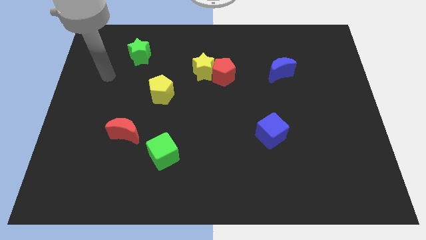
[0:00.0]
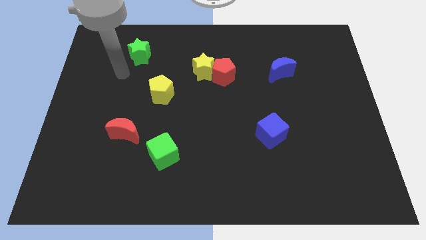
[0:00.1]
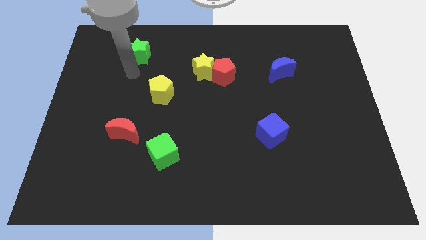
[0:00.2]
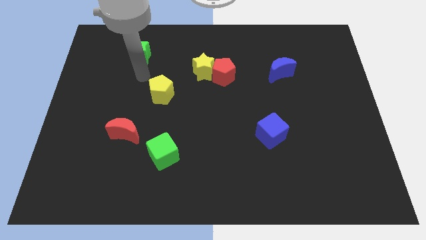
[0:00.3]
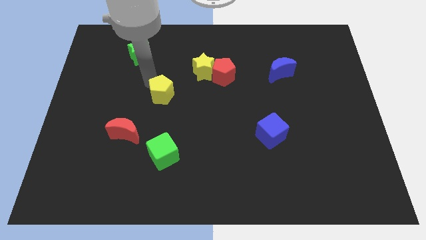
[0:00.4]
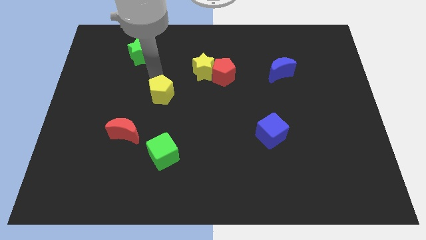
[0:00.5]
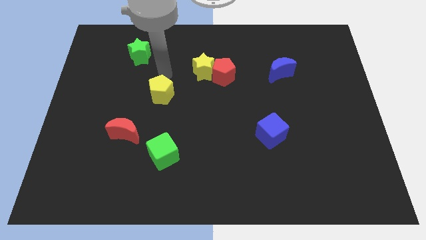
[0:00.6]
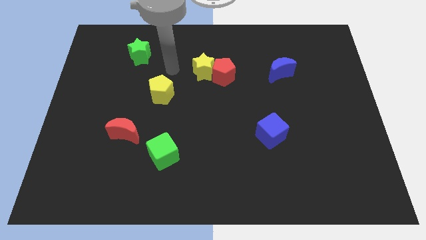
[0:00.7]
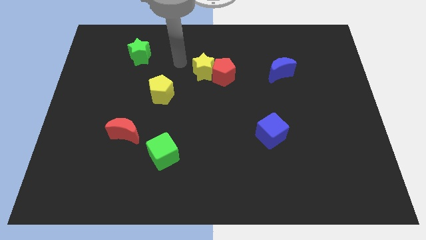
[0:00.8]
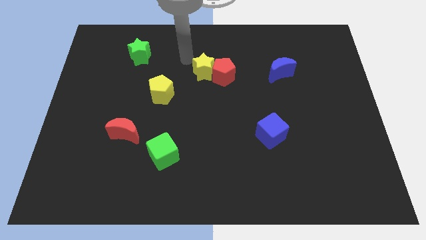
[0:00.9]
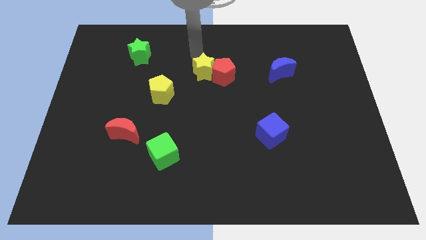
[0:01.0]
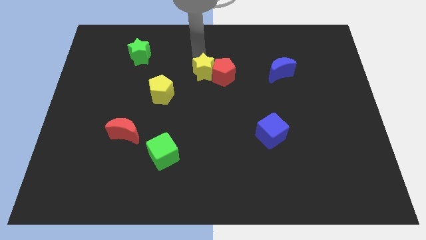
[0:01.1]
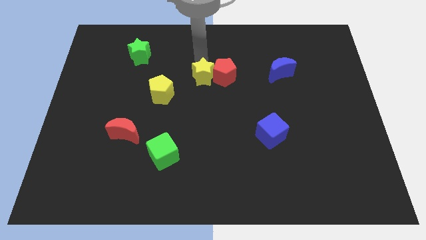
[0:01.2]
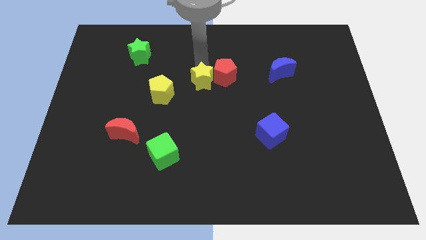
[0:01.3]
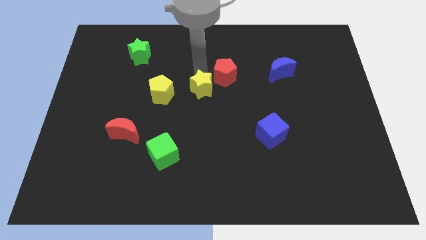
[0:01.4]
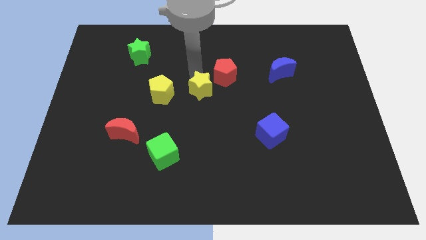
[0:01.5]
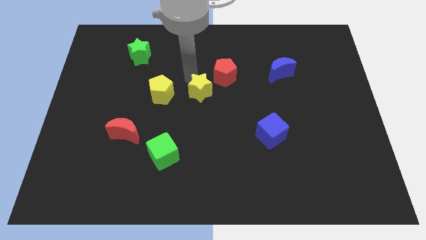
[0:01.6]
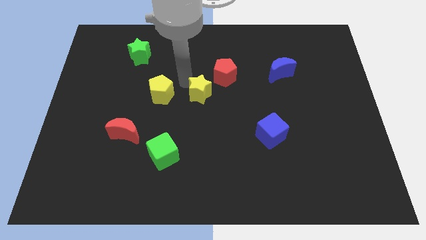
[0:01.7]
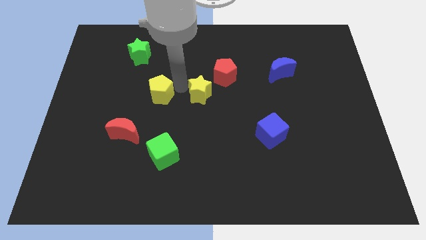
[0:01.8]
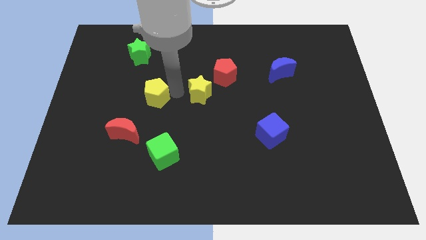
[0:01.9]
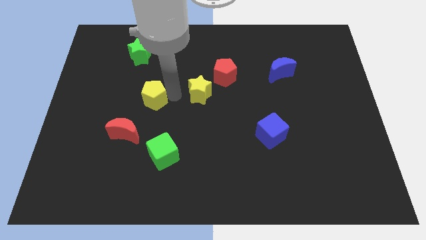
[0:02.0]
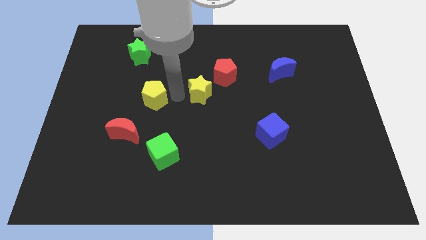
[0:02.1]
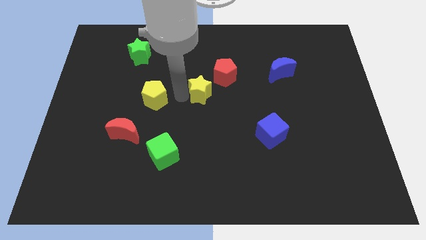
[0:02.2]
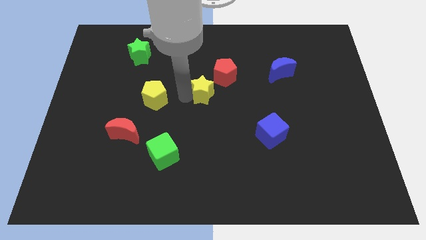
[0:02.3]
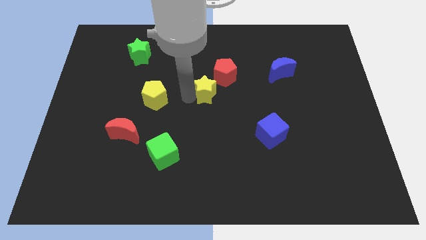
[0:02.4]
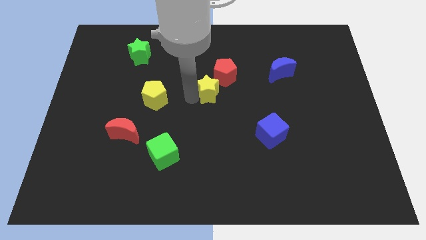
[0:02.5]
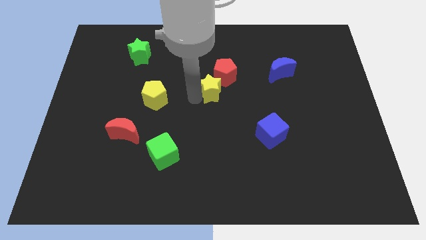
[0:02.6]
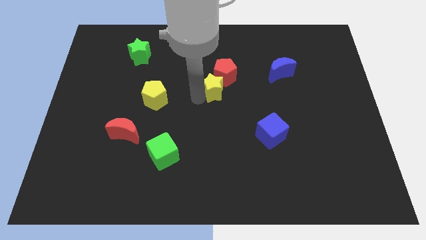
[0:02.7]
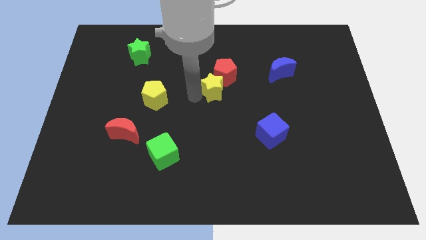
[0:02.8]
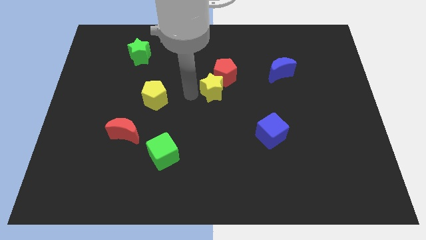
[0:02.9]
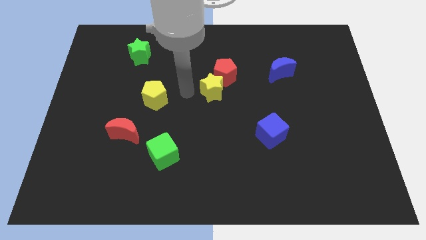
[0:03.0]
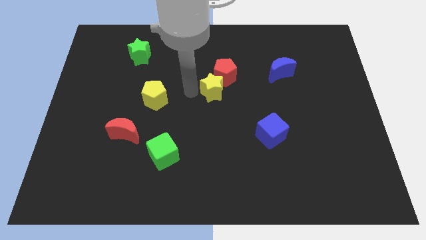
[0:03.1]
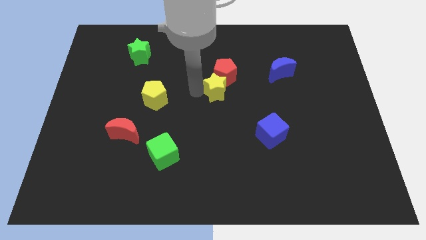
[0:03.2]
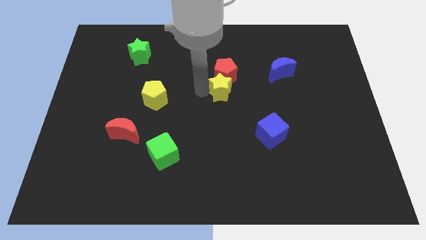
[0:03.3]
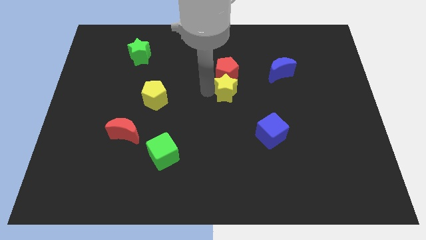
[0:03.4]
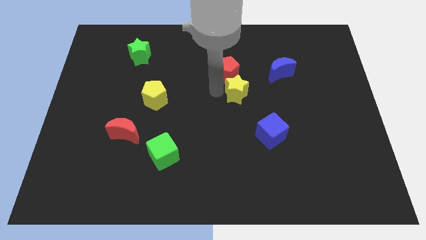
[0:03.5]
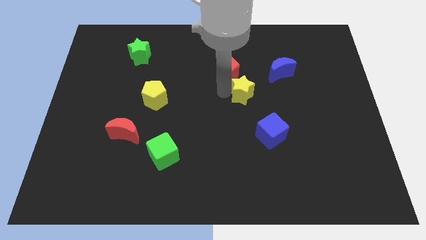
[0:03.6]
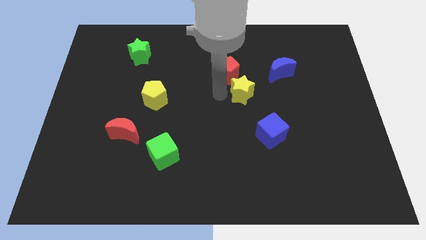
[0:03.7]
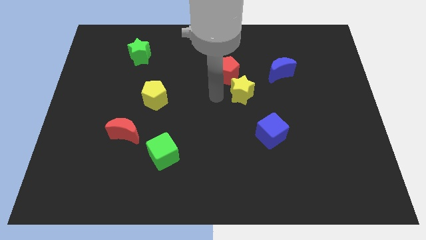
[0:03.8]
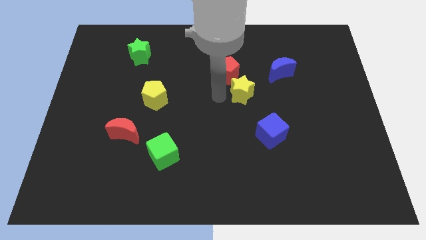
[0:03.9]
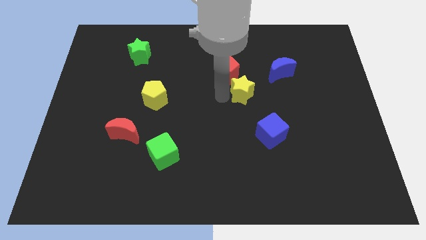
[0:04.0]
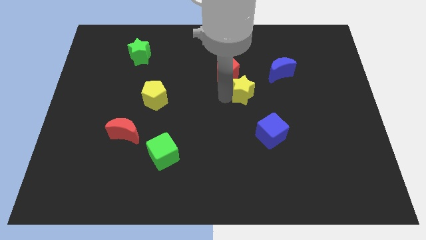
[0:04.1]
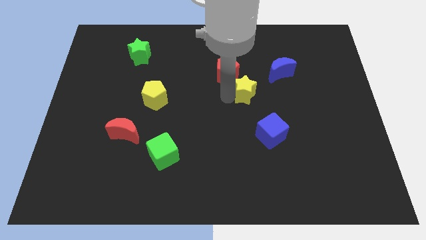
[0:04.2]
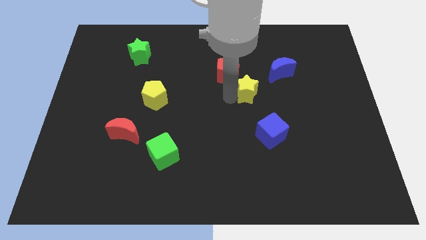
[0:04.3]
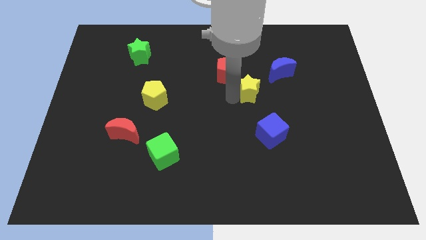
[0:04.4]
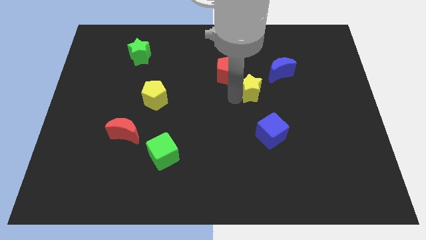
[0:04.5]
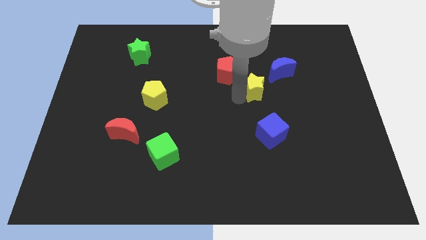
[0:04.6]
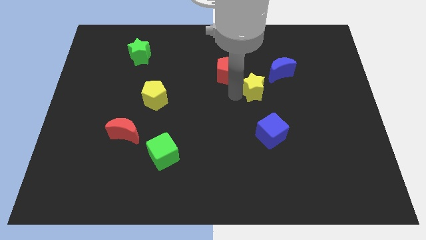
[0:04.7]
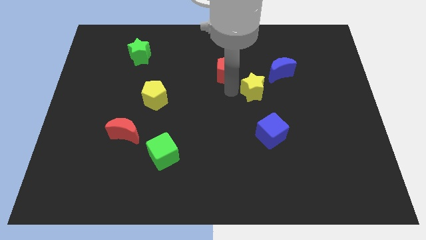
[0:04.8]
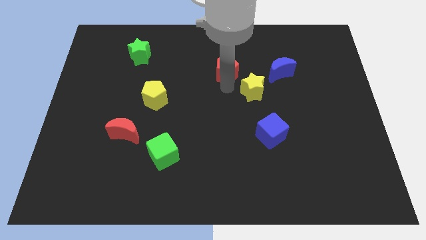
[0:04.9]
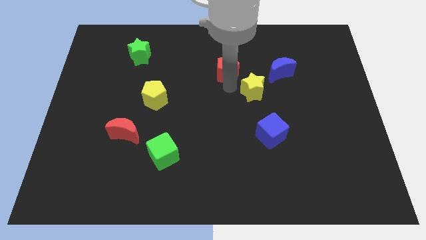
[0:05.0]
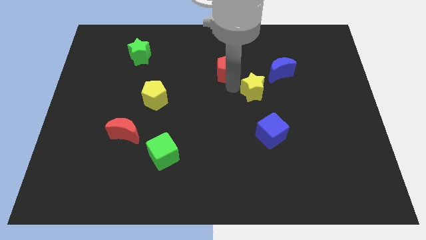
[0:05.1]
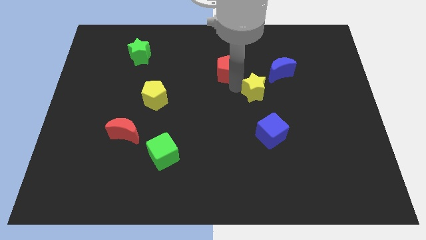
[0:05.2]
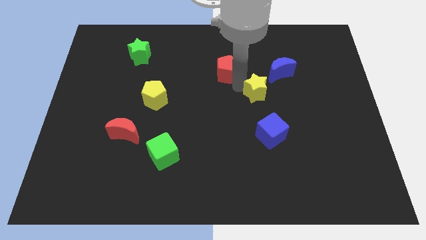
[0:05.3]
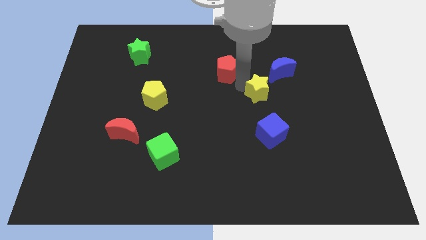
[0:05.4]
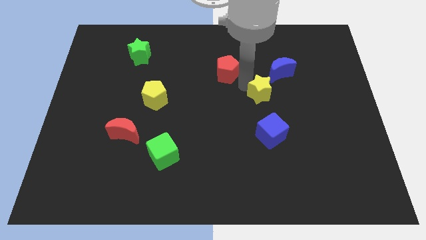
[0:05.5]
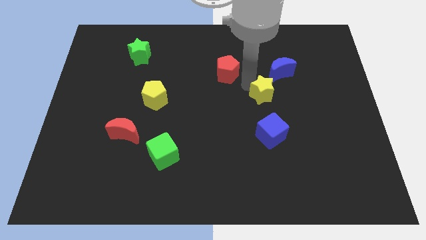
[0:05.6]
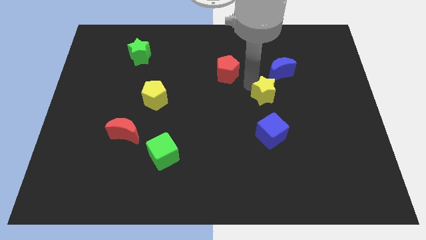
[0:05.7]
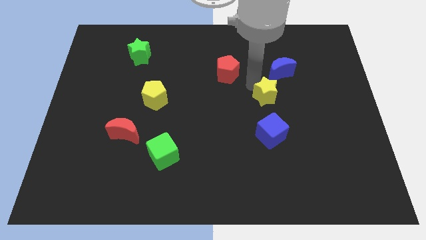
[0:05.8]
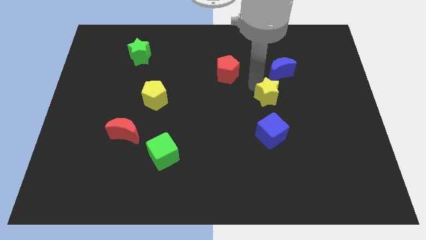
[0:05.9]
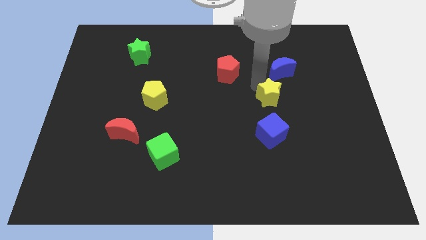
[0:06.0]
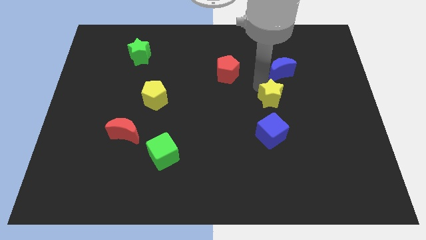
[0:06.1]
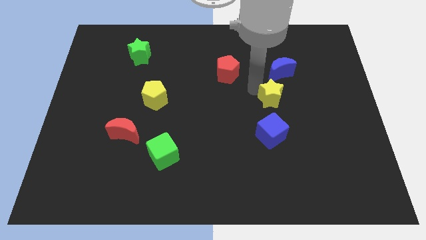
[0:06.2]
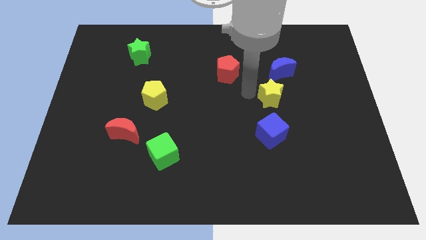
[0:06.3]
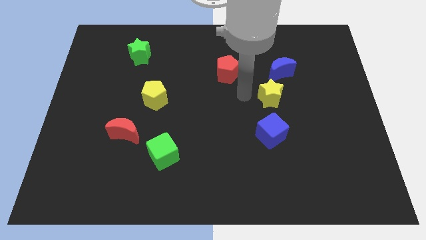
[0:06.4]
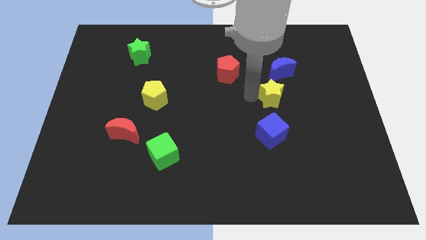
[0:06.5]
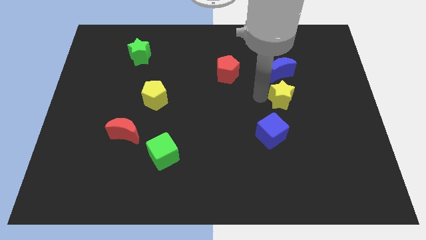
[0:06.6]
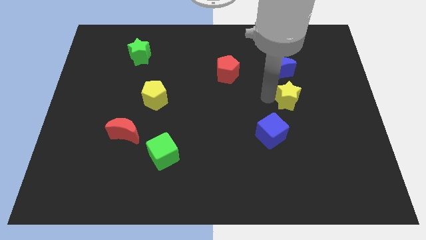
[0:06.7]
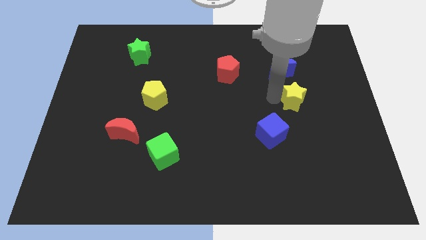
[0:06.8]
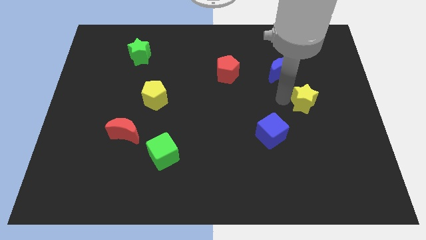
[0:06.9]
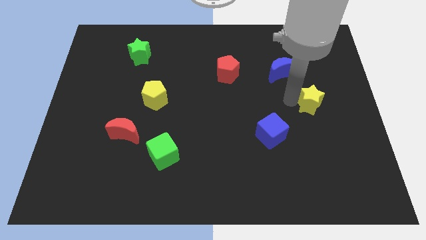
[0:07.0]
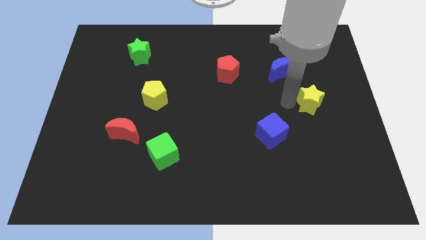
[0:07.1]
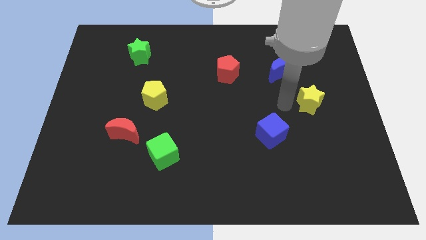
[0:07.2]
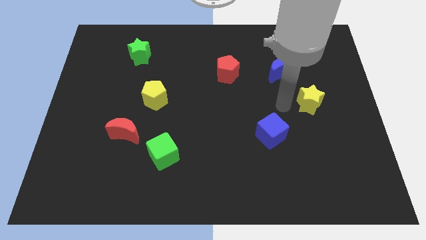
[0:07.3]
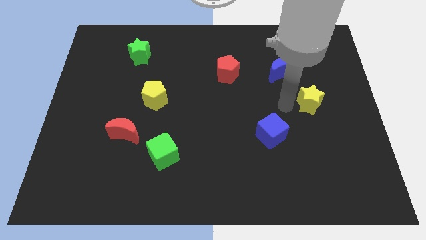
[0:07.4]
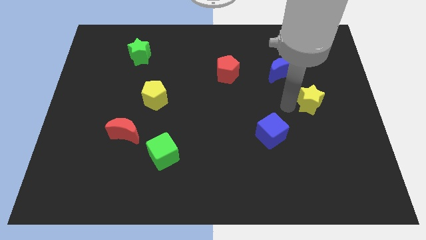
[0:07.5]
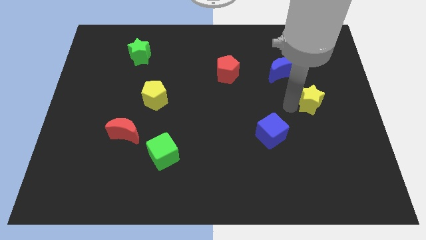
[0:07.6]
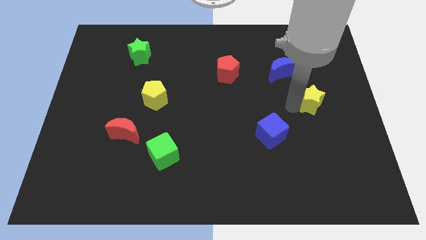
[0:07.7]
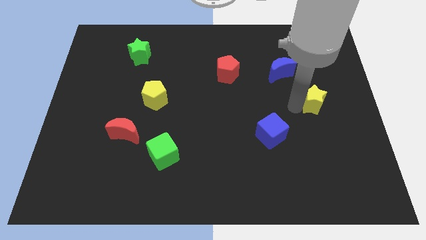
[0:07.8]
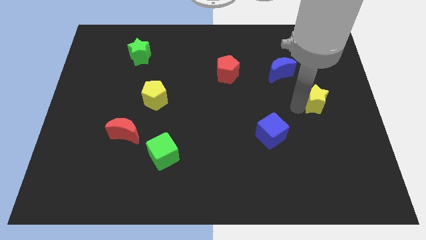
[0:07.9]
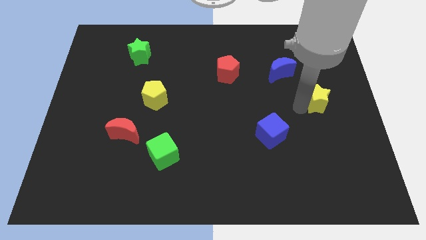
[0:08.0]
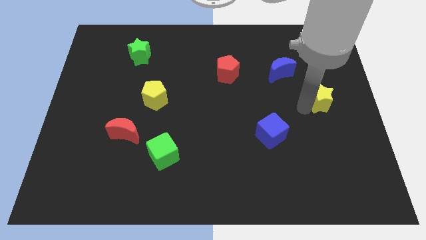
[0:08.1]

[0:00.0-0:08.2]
move the yellow star to the right side of the board
